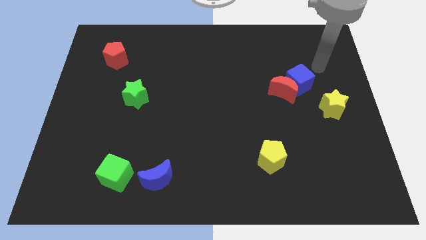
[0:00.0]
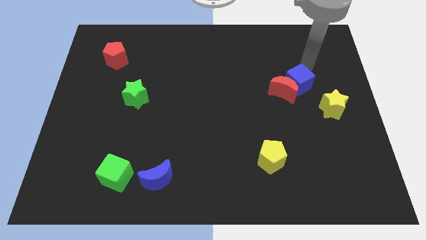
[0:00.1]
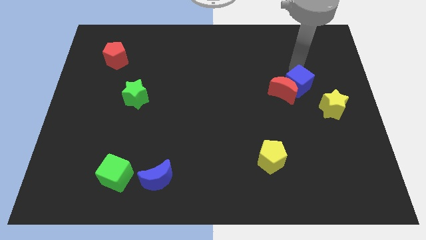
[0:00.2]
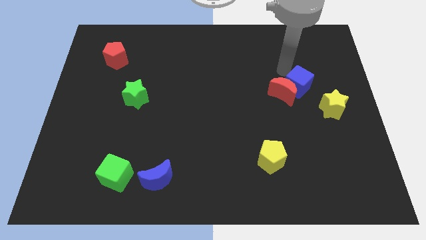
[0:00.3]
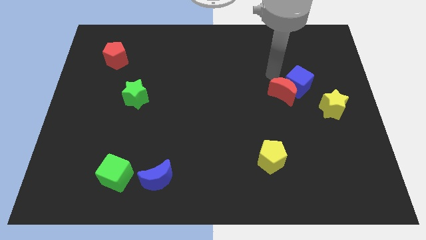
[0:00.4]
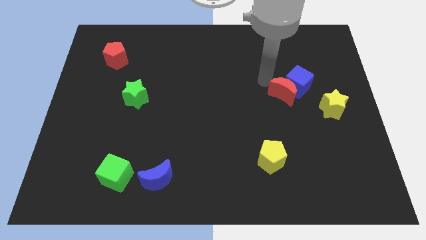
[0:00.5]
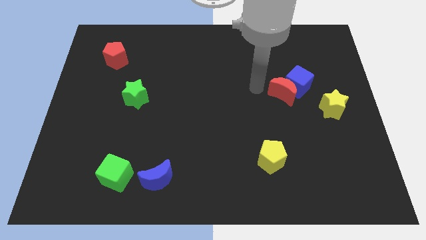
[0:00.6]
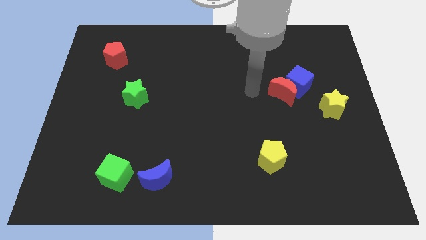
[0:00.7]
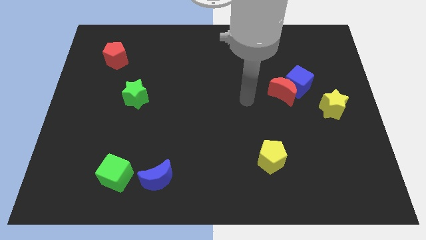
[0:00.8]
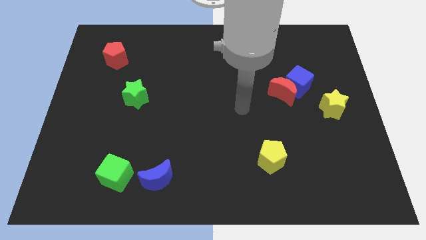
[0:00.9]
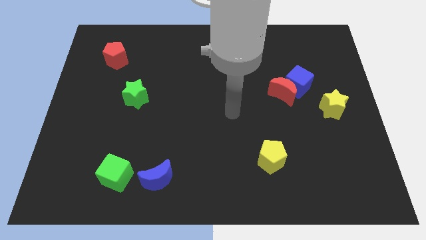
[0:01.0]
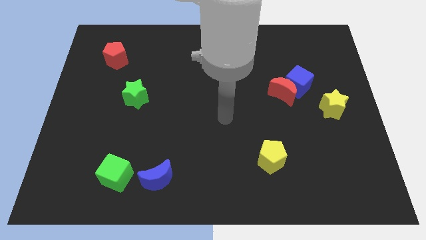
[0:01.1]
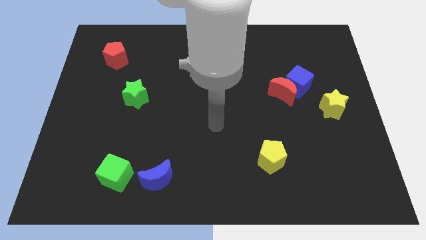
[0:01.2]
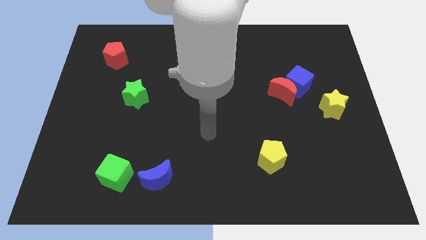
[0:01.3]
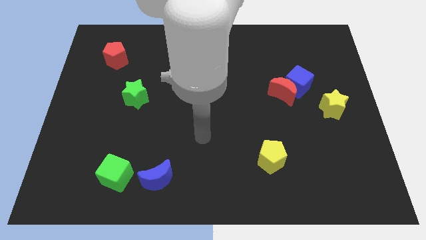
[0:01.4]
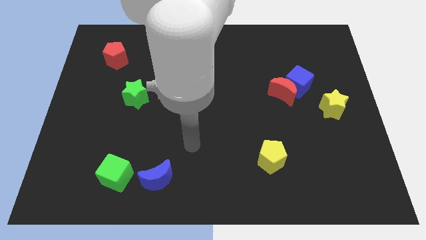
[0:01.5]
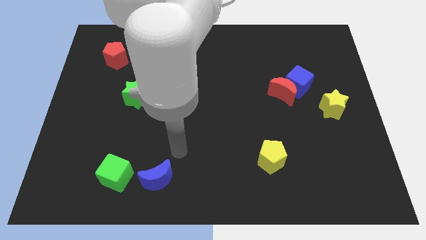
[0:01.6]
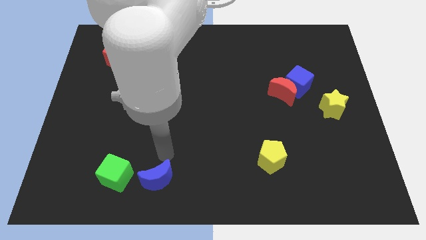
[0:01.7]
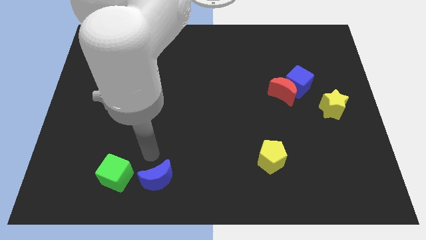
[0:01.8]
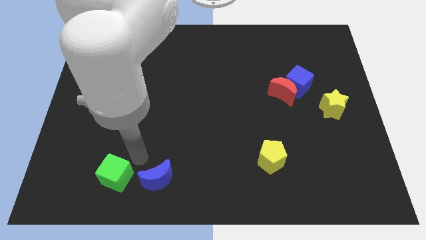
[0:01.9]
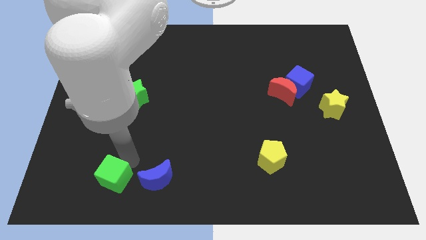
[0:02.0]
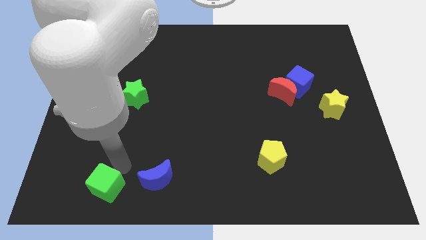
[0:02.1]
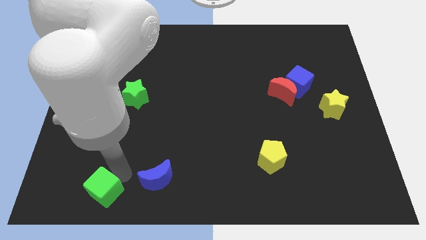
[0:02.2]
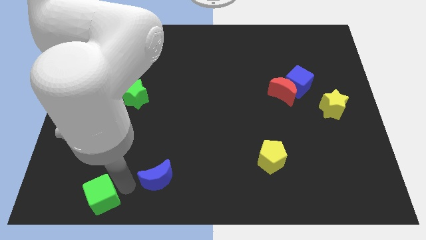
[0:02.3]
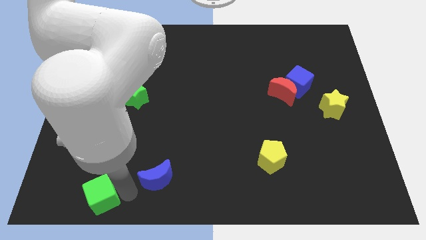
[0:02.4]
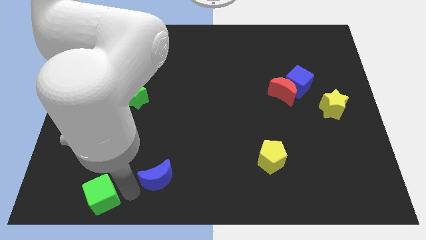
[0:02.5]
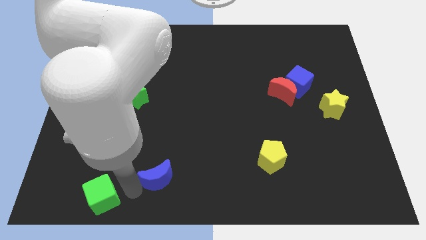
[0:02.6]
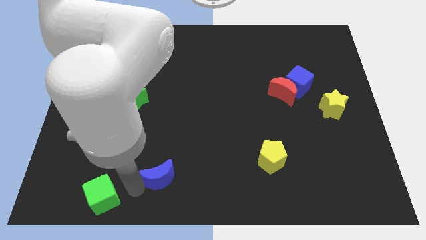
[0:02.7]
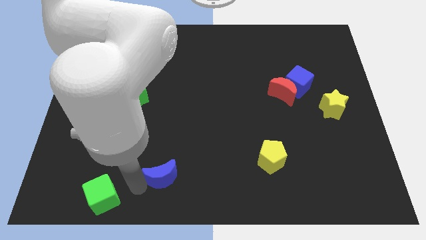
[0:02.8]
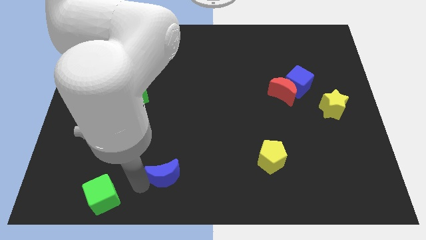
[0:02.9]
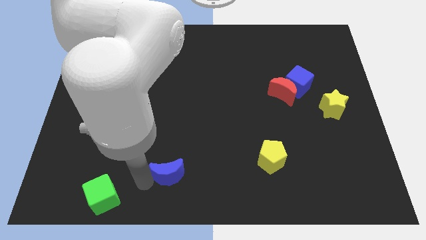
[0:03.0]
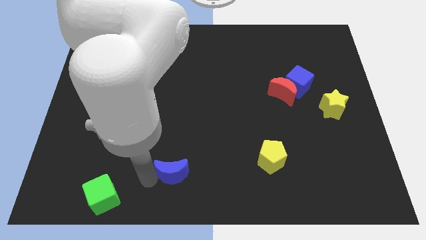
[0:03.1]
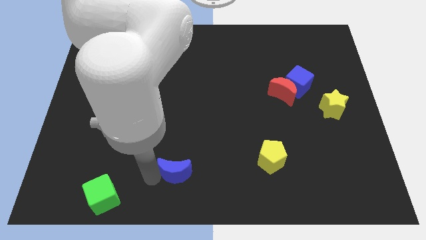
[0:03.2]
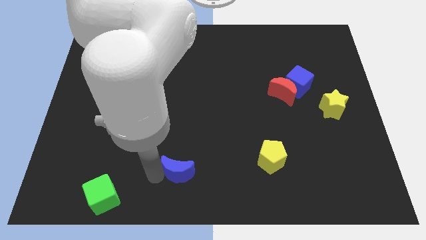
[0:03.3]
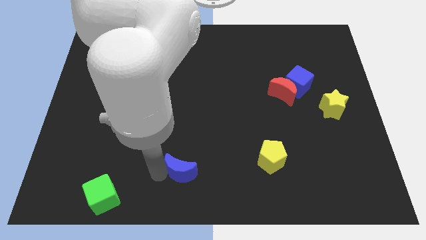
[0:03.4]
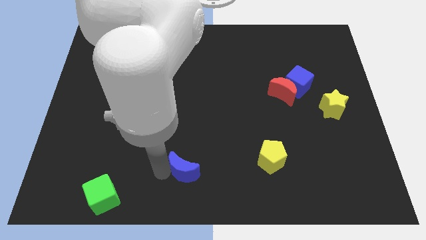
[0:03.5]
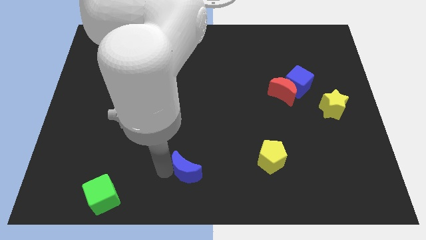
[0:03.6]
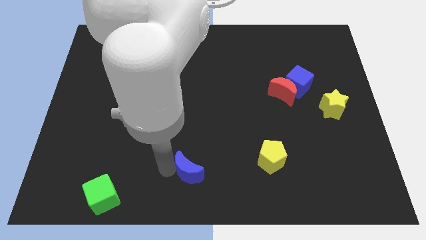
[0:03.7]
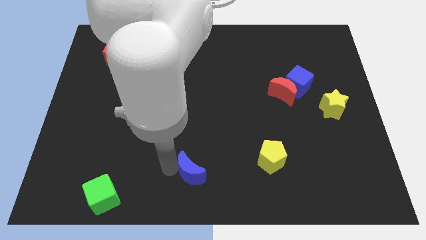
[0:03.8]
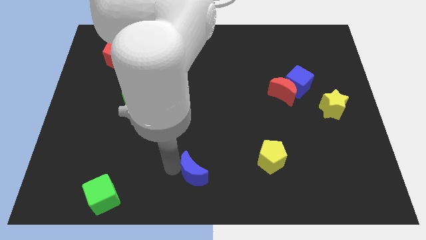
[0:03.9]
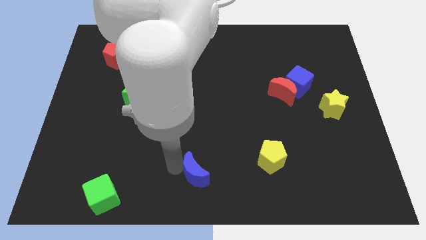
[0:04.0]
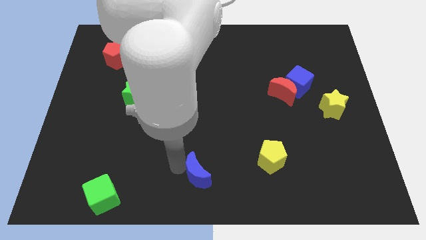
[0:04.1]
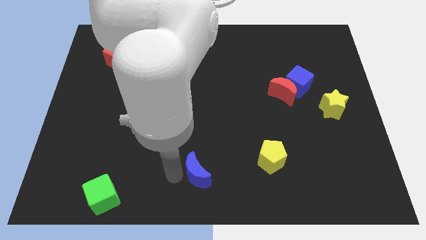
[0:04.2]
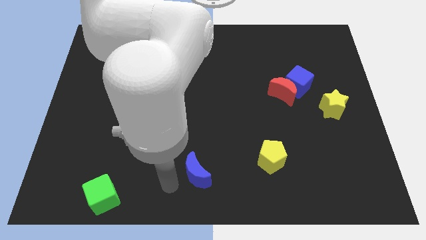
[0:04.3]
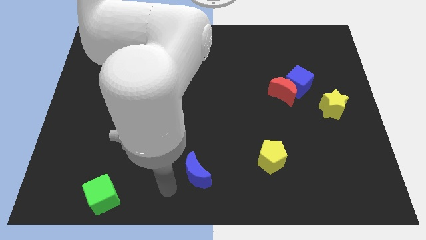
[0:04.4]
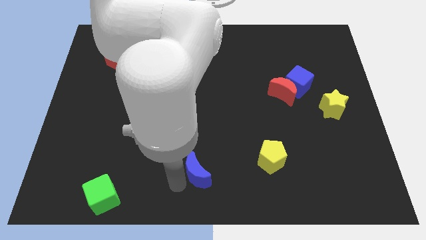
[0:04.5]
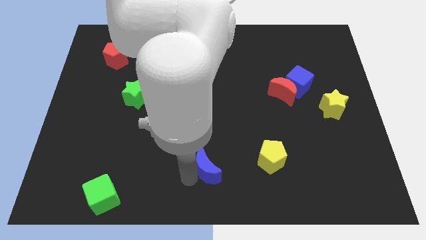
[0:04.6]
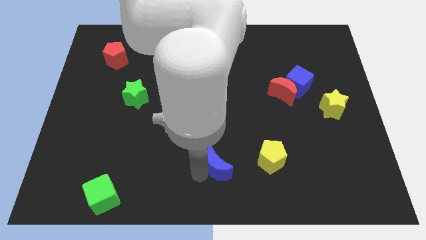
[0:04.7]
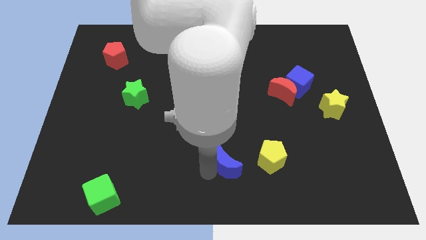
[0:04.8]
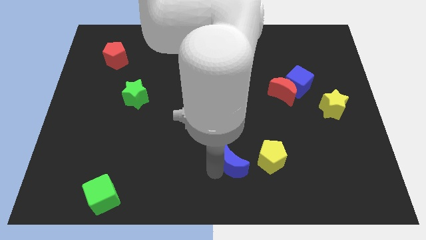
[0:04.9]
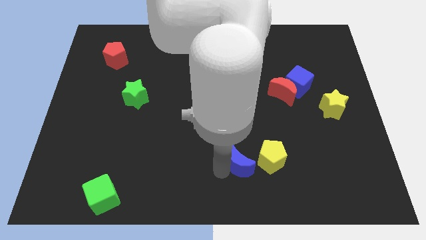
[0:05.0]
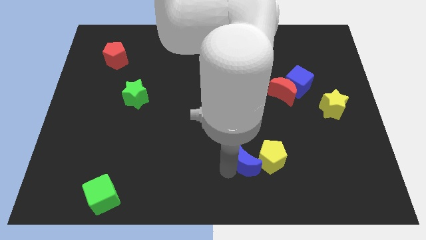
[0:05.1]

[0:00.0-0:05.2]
push the blue moon to the yellow pentagon

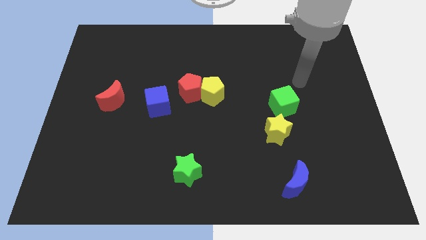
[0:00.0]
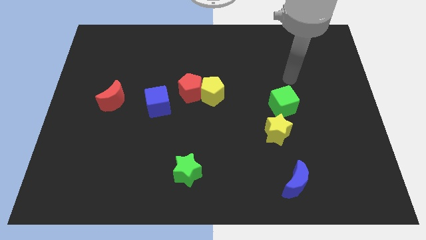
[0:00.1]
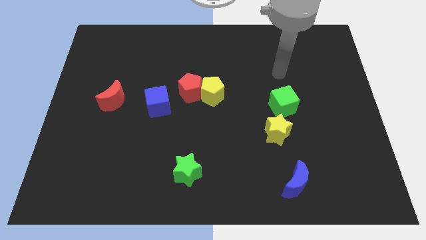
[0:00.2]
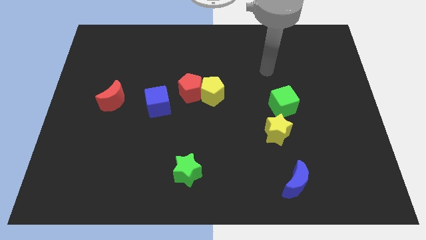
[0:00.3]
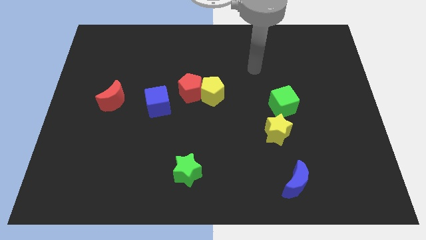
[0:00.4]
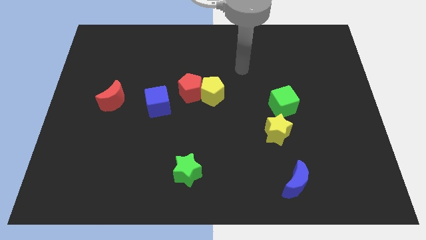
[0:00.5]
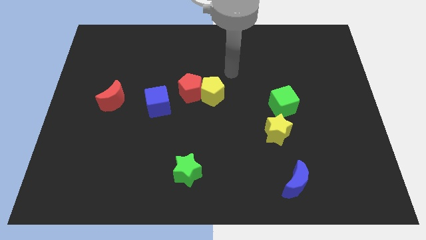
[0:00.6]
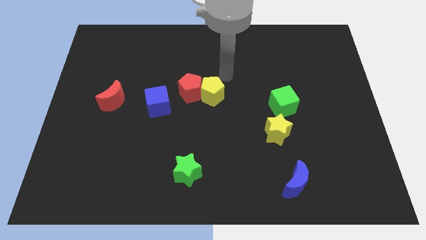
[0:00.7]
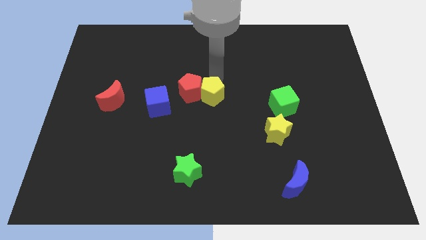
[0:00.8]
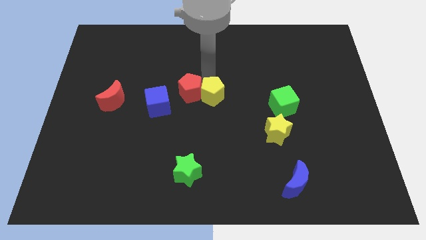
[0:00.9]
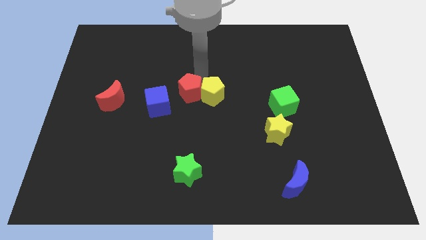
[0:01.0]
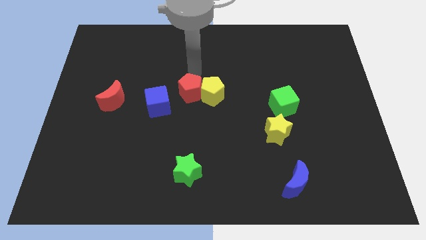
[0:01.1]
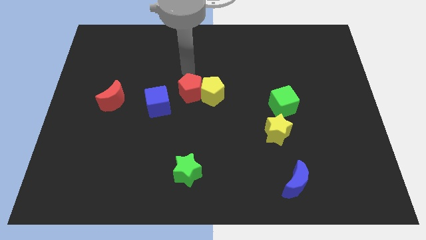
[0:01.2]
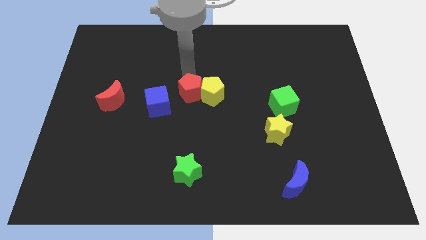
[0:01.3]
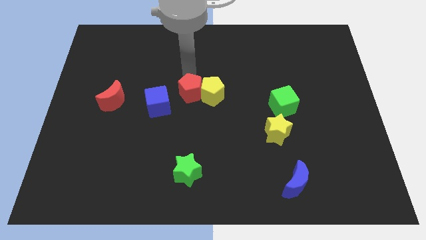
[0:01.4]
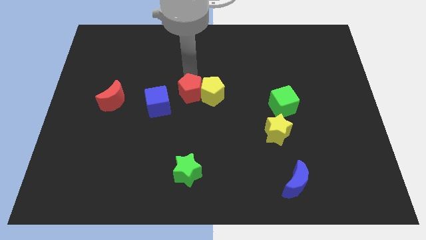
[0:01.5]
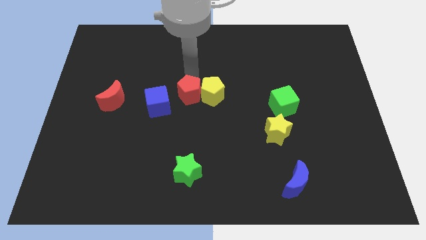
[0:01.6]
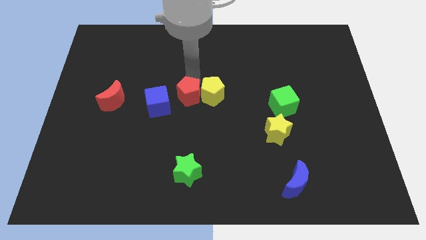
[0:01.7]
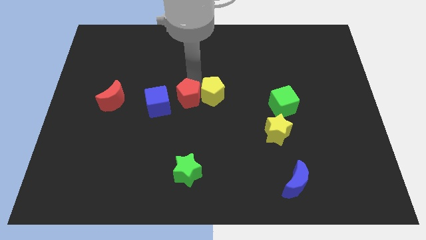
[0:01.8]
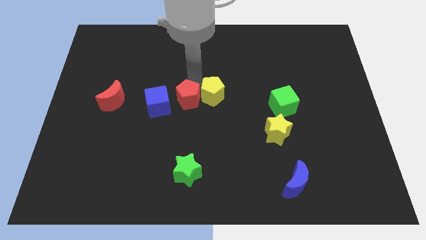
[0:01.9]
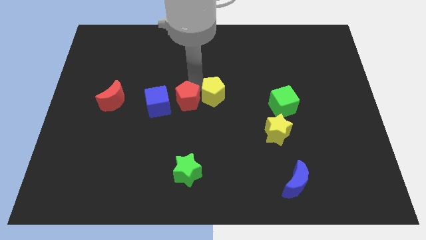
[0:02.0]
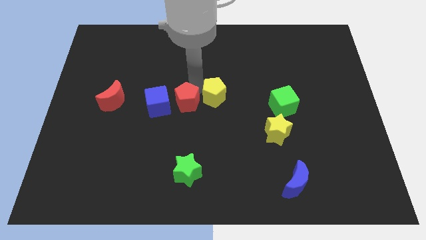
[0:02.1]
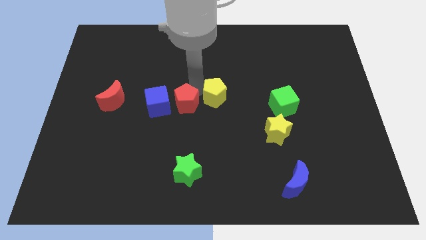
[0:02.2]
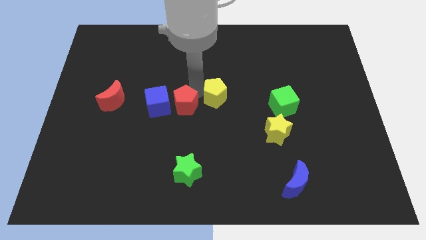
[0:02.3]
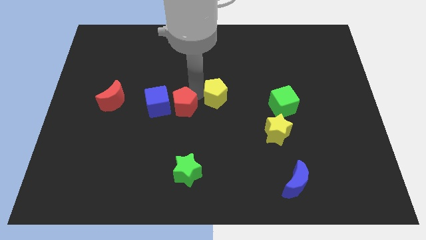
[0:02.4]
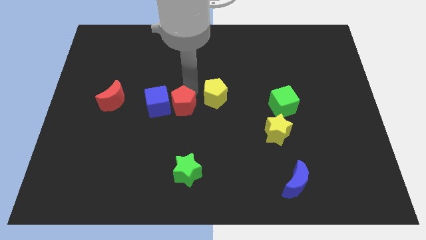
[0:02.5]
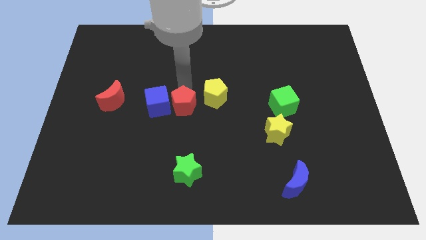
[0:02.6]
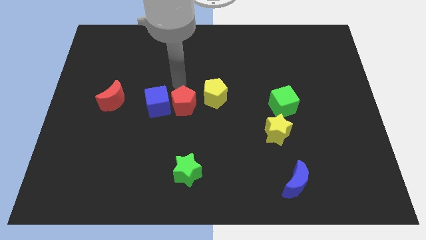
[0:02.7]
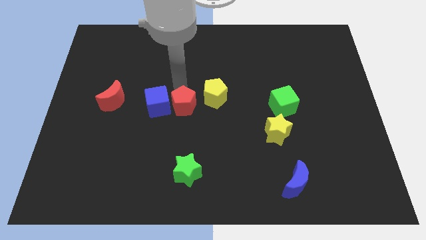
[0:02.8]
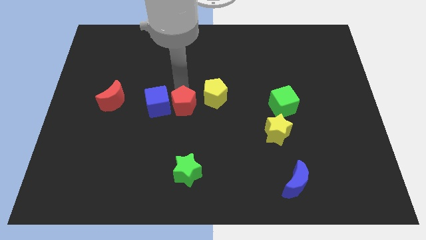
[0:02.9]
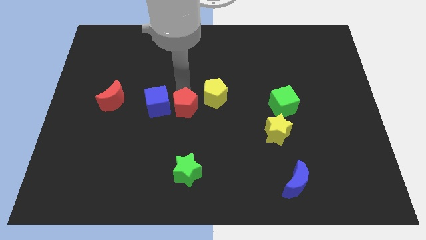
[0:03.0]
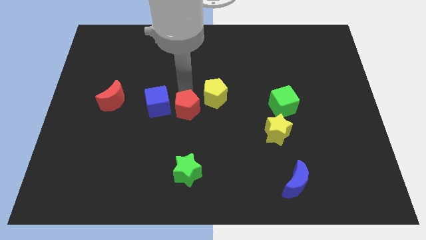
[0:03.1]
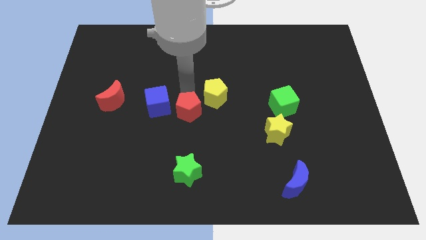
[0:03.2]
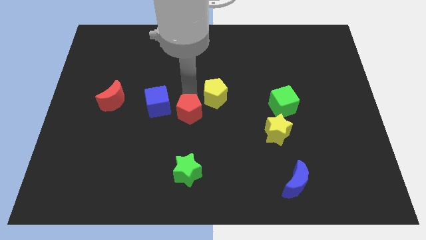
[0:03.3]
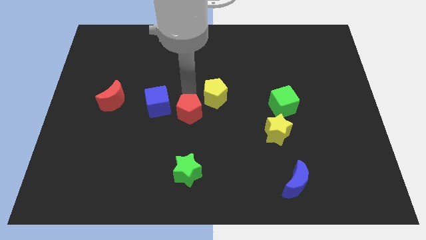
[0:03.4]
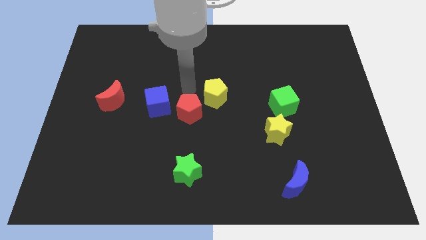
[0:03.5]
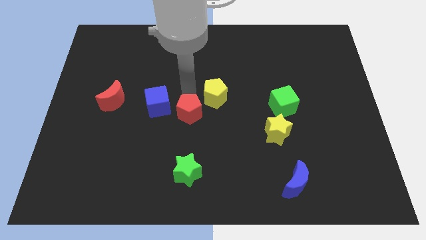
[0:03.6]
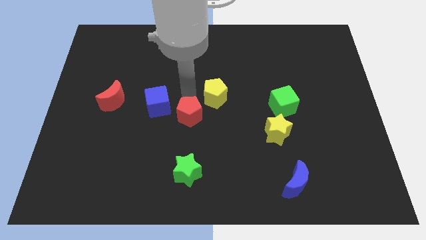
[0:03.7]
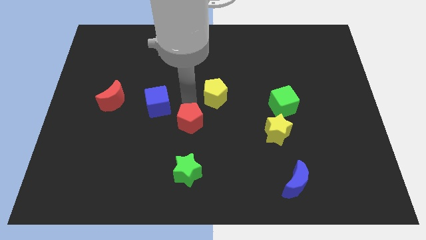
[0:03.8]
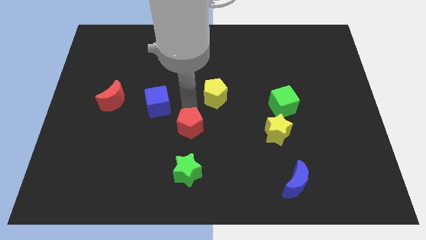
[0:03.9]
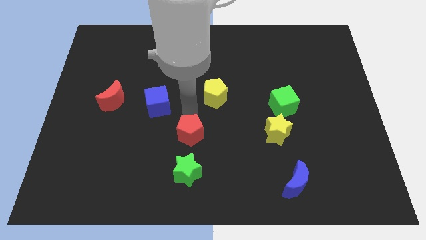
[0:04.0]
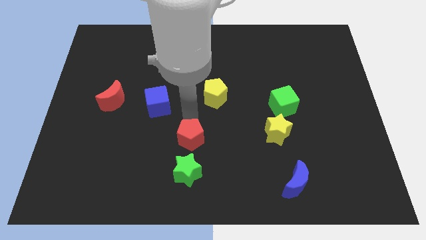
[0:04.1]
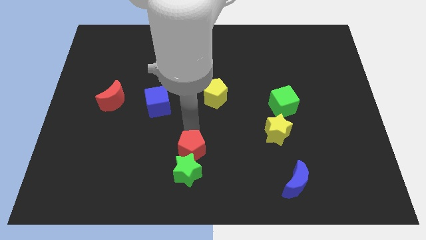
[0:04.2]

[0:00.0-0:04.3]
move the red pentagon to the green star
